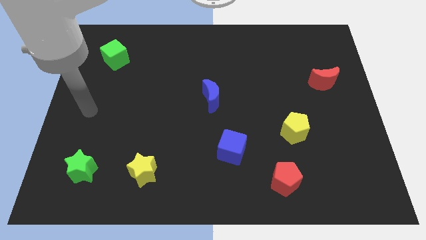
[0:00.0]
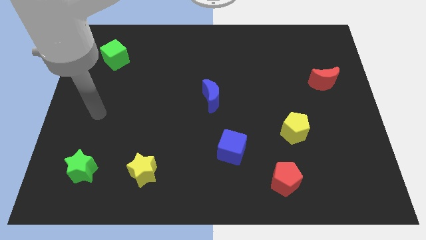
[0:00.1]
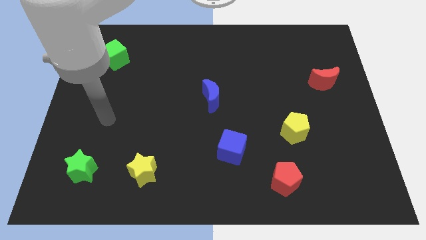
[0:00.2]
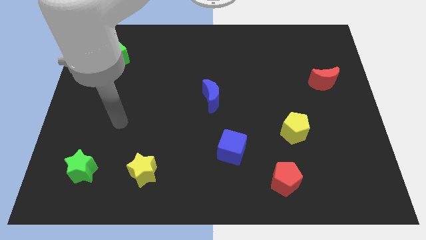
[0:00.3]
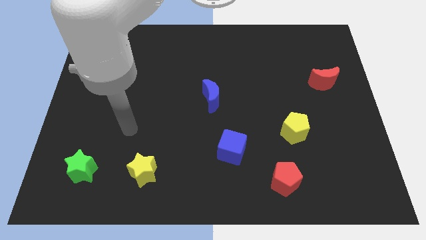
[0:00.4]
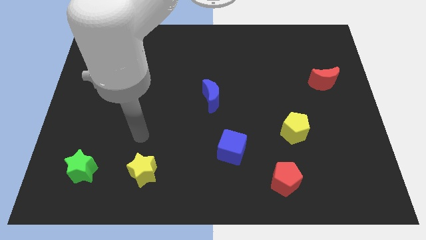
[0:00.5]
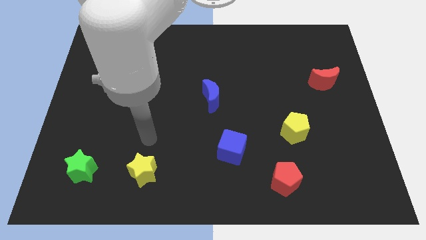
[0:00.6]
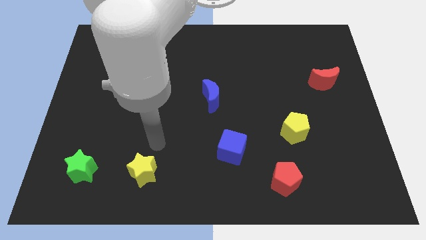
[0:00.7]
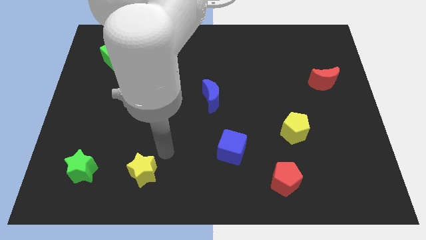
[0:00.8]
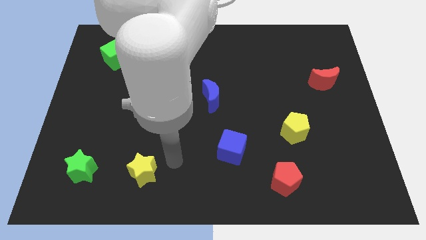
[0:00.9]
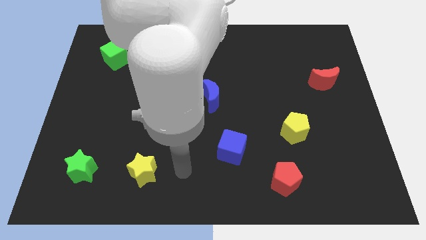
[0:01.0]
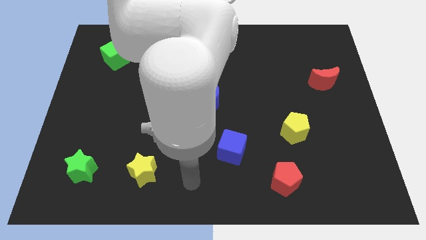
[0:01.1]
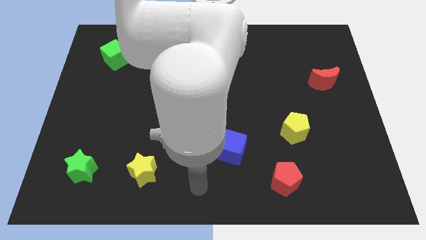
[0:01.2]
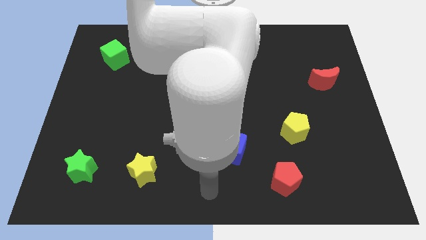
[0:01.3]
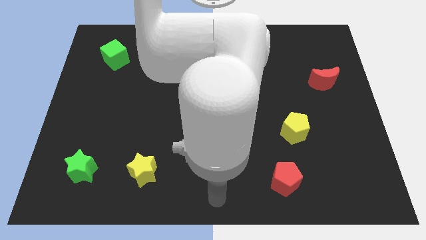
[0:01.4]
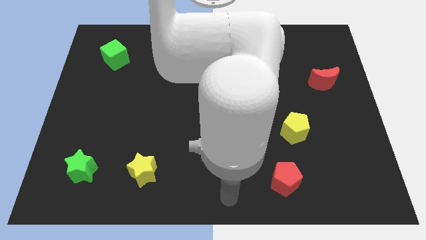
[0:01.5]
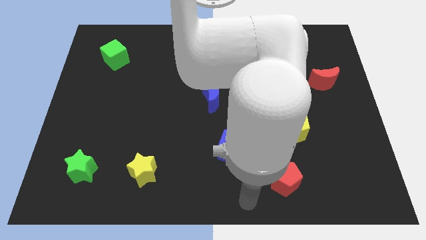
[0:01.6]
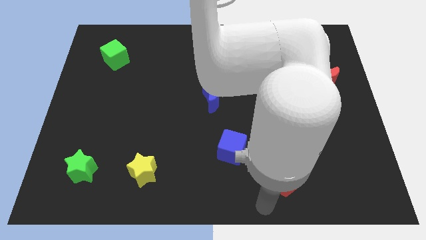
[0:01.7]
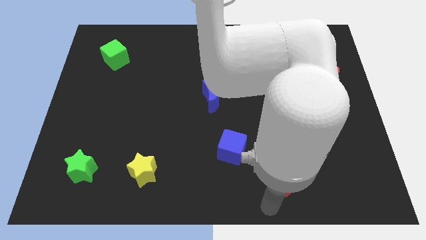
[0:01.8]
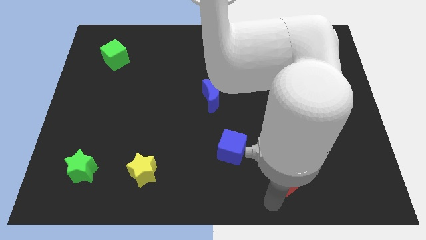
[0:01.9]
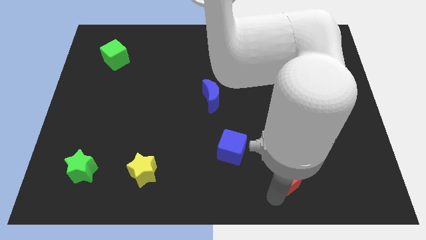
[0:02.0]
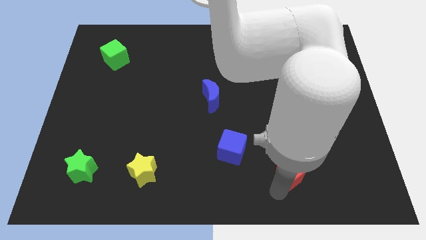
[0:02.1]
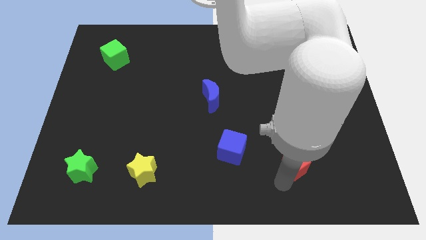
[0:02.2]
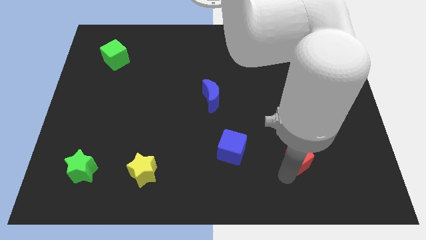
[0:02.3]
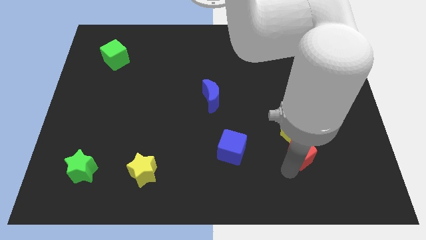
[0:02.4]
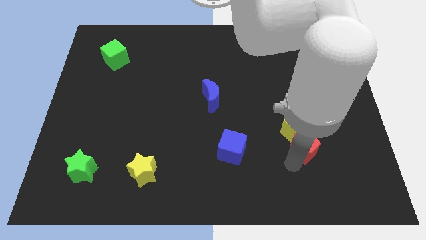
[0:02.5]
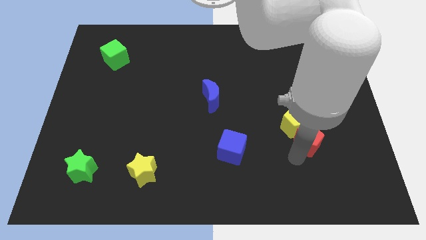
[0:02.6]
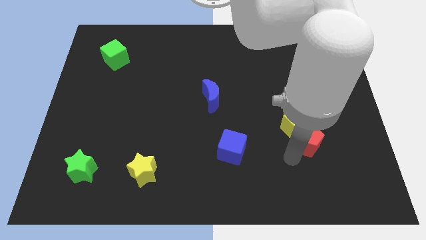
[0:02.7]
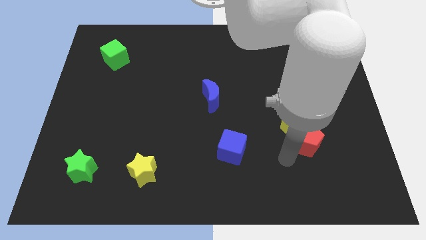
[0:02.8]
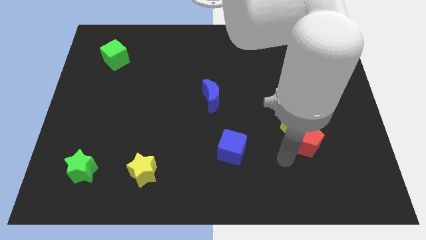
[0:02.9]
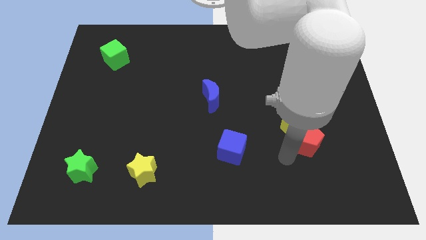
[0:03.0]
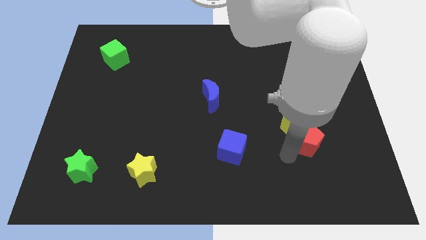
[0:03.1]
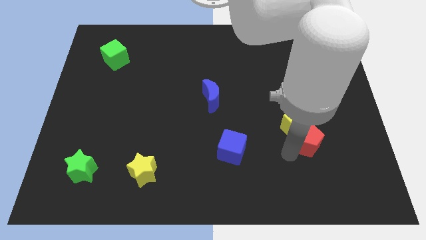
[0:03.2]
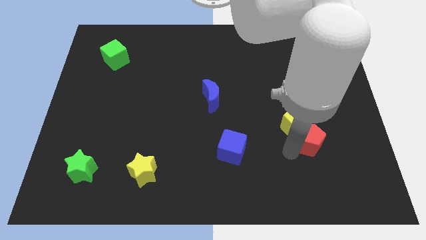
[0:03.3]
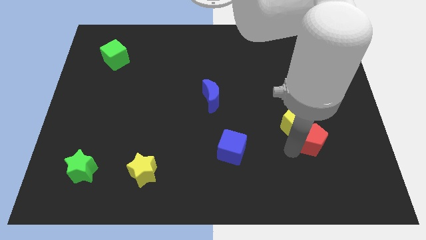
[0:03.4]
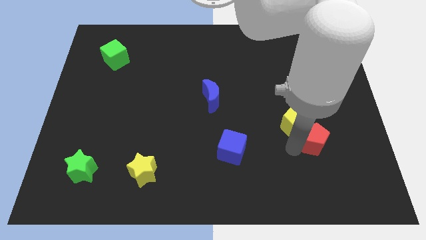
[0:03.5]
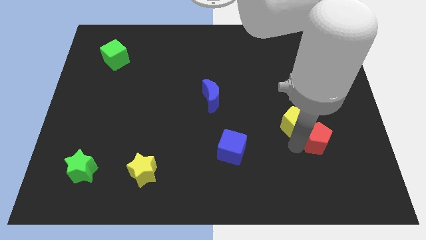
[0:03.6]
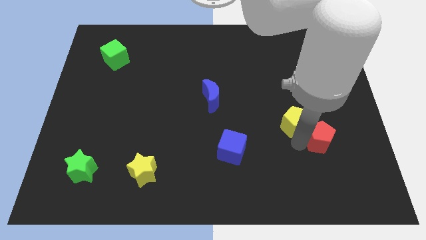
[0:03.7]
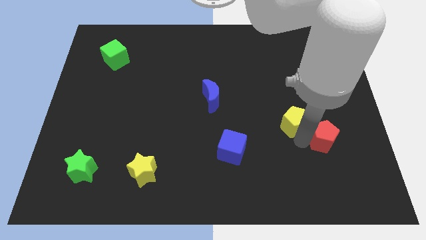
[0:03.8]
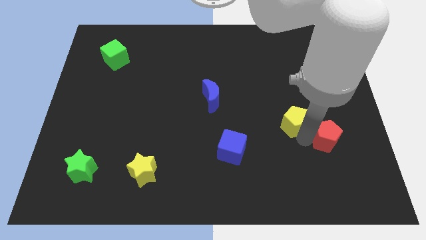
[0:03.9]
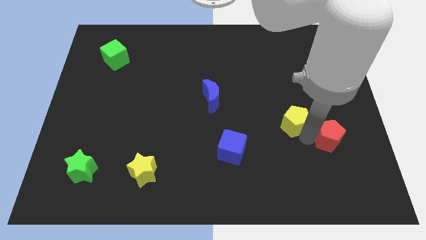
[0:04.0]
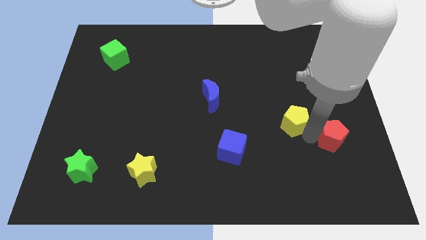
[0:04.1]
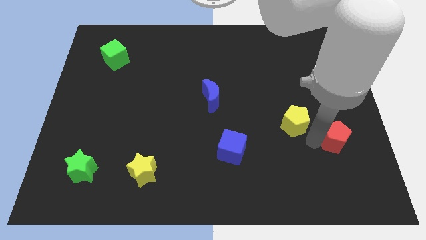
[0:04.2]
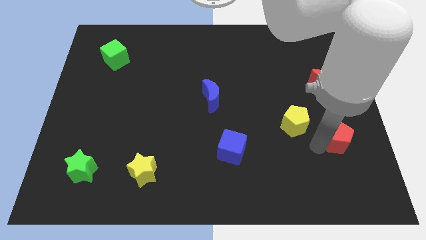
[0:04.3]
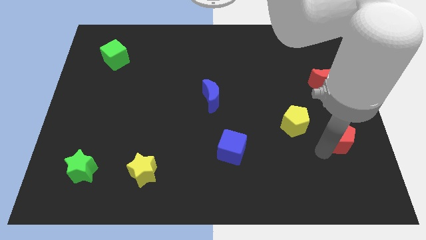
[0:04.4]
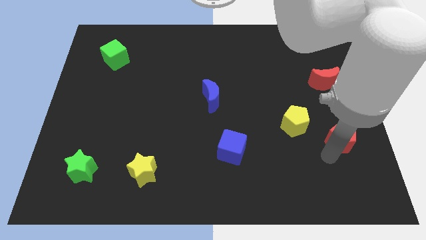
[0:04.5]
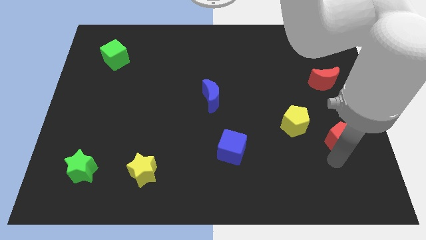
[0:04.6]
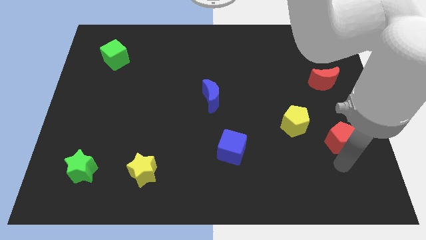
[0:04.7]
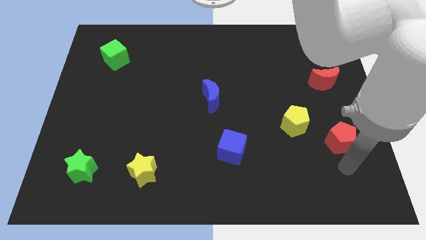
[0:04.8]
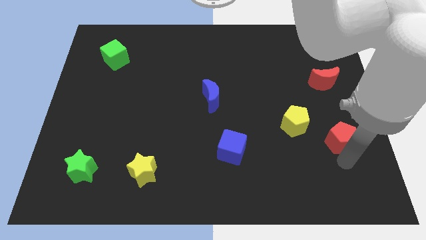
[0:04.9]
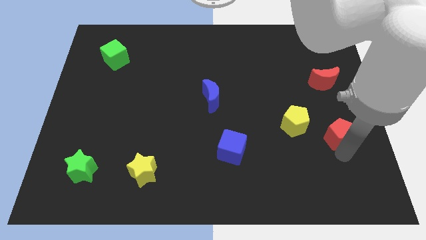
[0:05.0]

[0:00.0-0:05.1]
put the red pentagon to the bottom side of the red moon

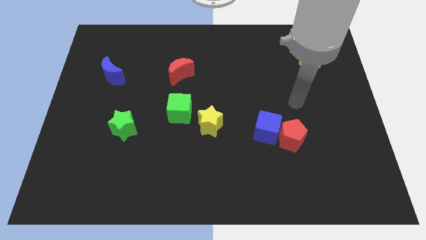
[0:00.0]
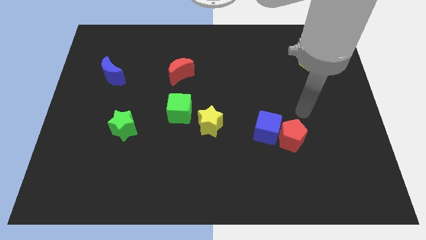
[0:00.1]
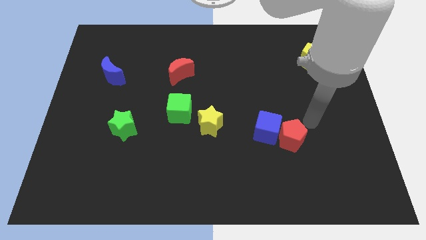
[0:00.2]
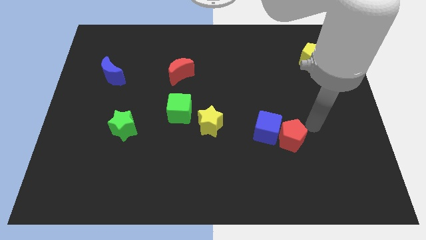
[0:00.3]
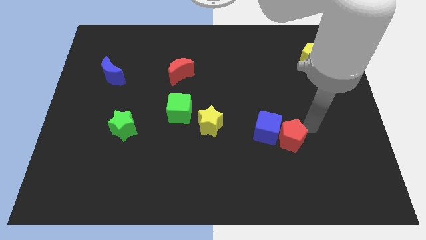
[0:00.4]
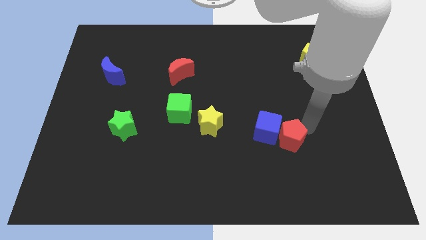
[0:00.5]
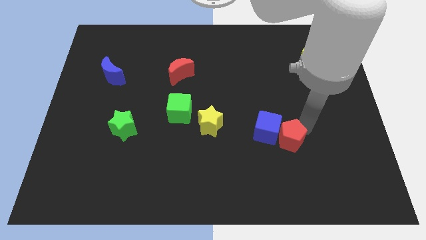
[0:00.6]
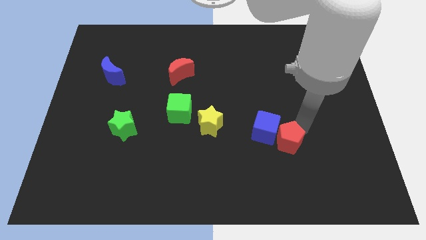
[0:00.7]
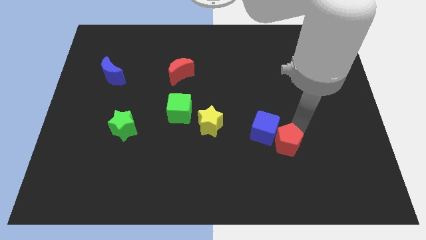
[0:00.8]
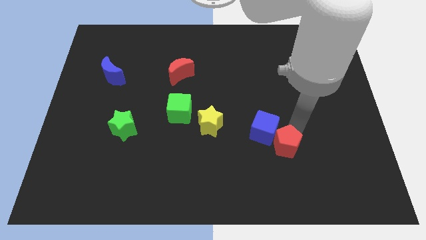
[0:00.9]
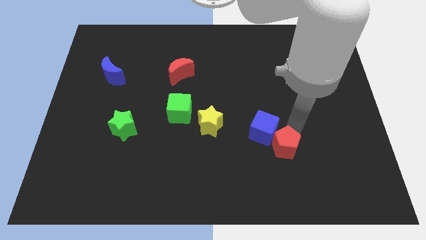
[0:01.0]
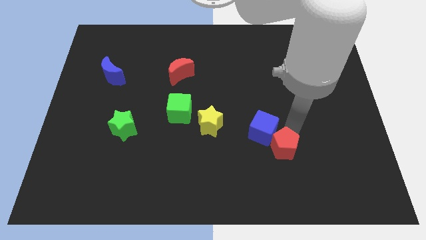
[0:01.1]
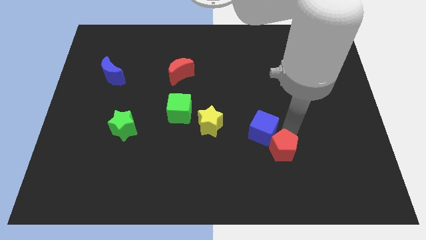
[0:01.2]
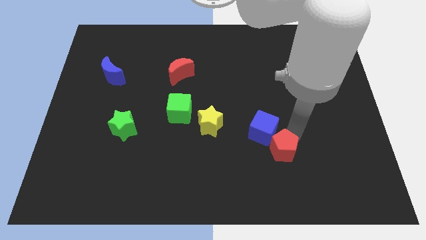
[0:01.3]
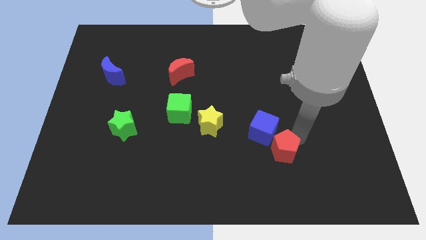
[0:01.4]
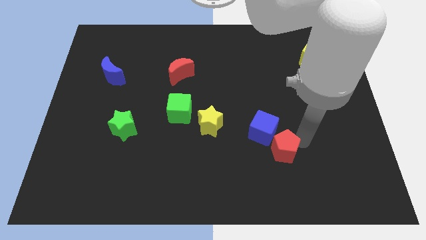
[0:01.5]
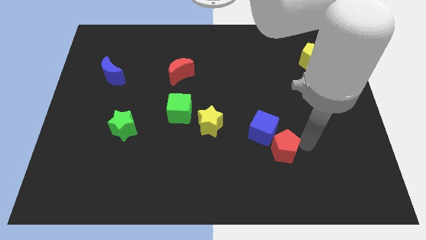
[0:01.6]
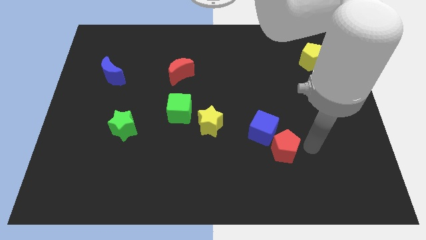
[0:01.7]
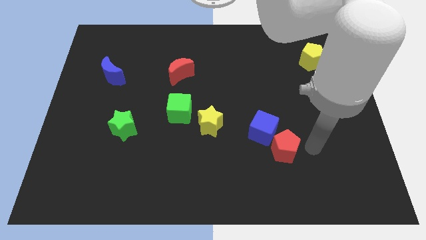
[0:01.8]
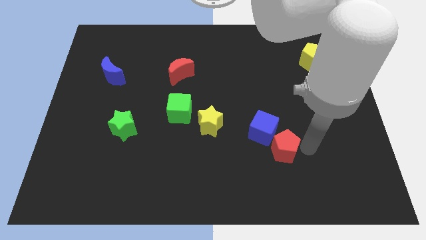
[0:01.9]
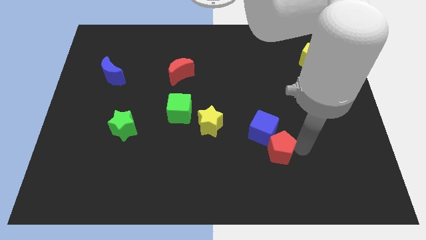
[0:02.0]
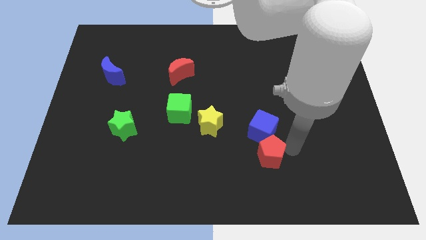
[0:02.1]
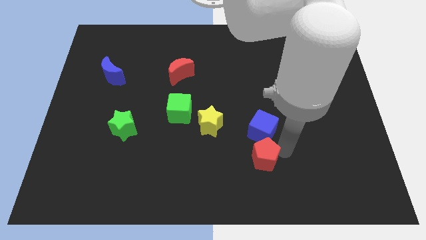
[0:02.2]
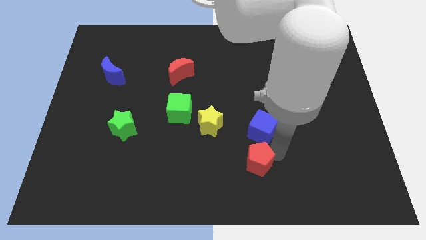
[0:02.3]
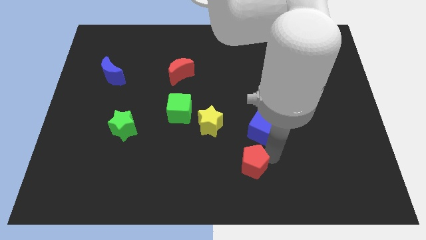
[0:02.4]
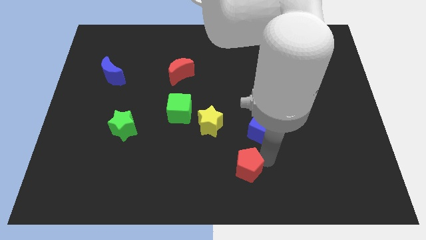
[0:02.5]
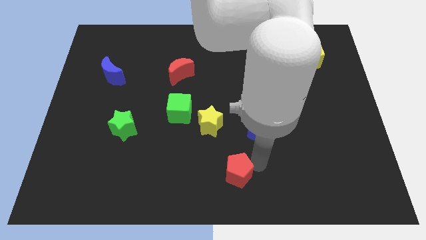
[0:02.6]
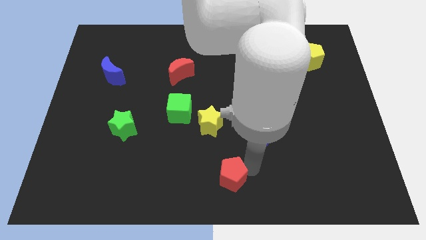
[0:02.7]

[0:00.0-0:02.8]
put the red pentagon below the yellow star
